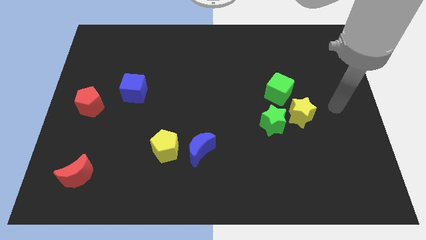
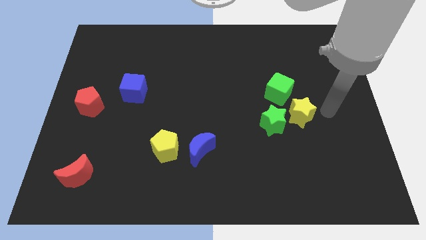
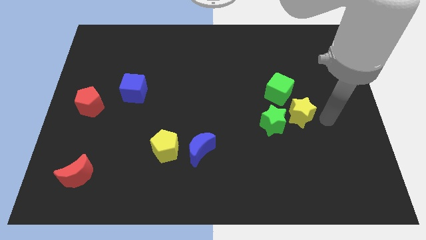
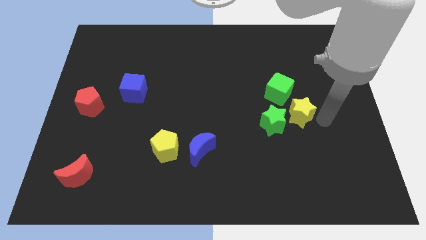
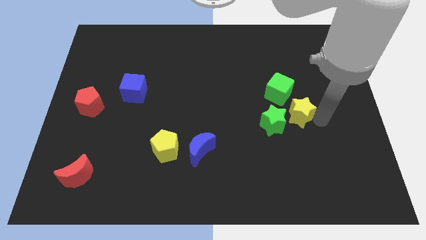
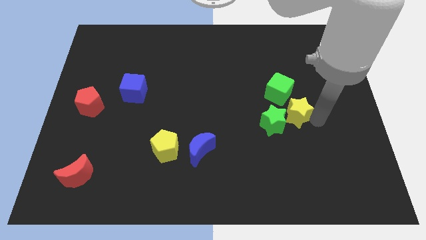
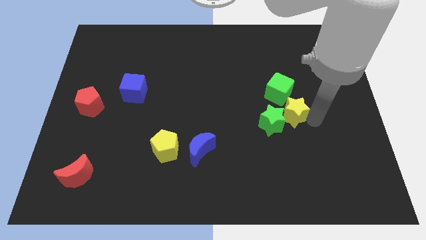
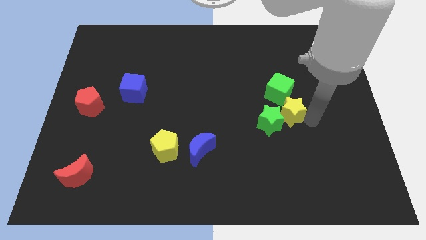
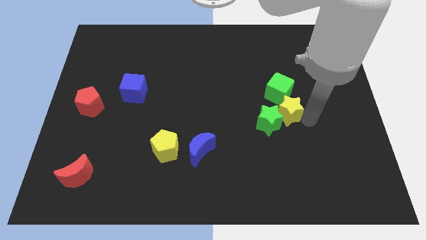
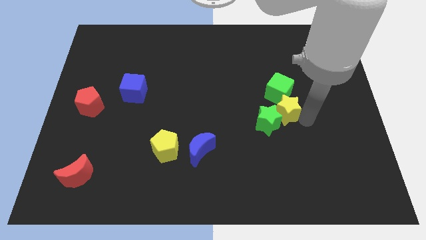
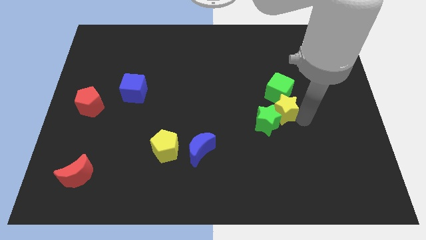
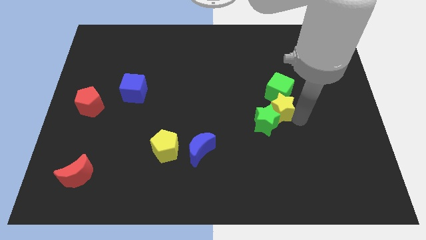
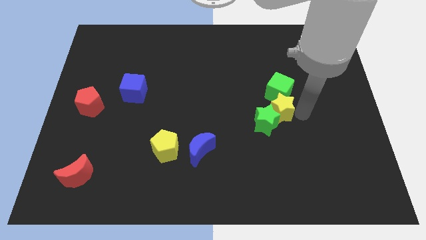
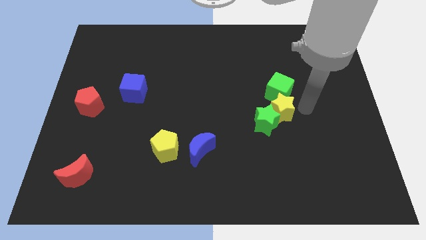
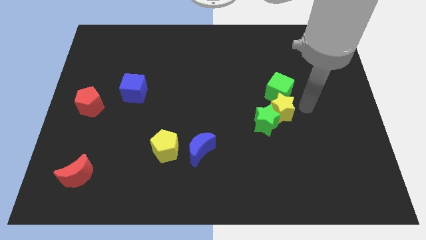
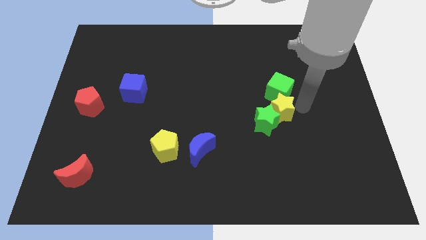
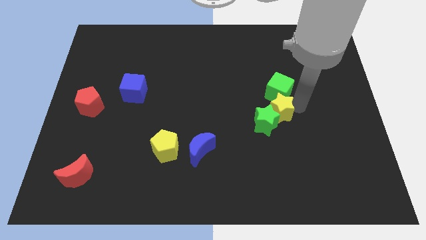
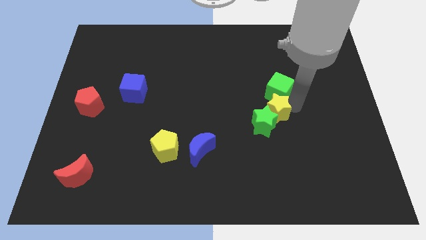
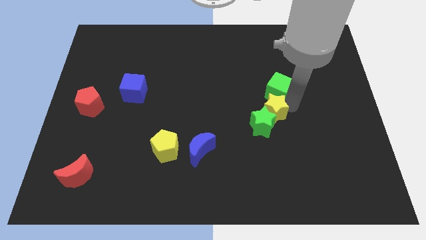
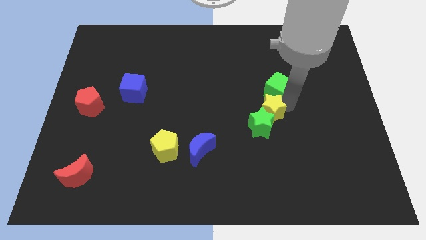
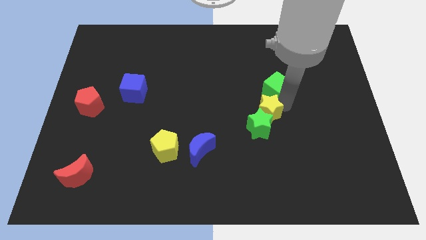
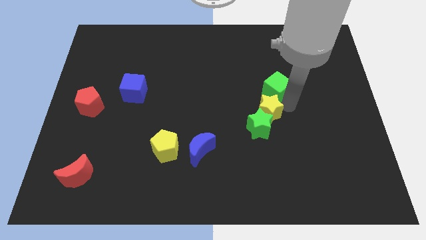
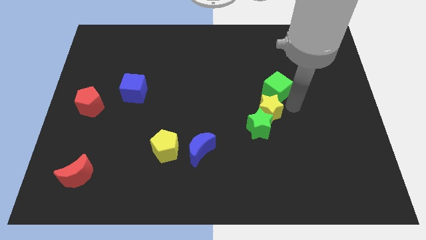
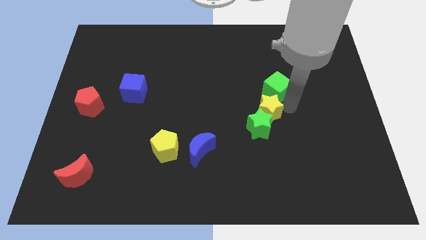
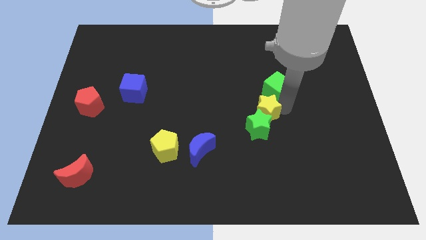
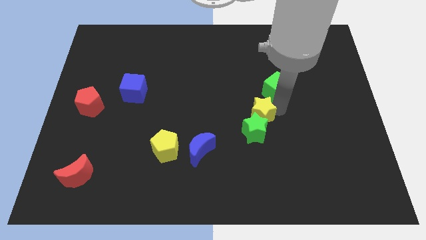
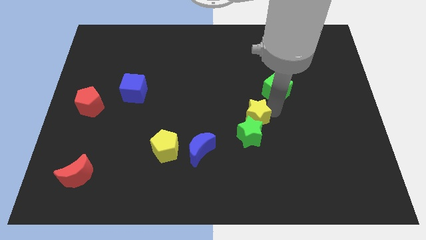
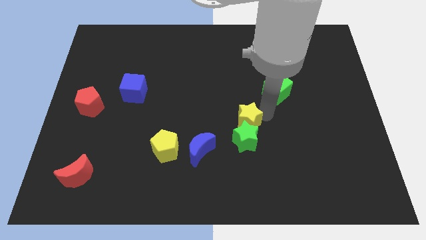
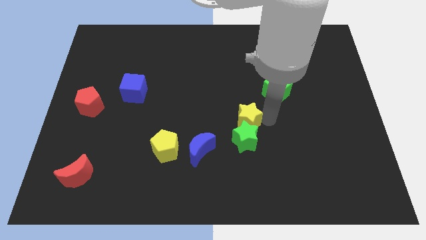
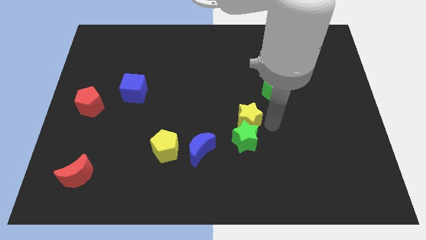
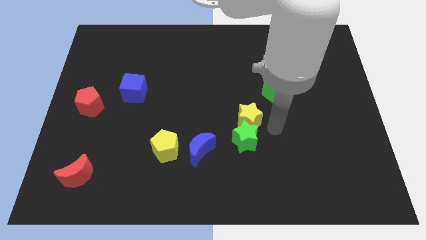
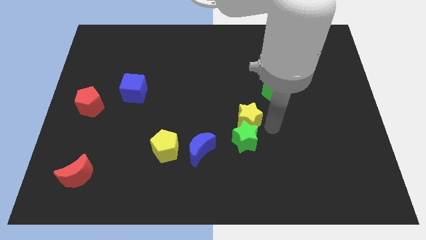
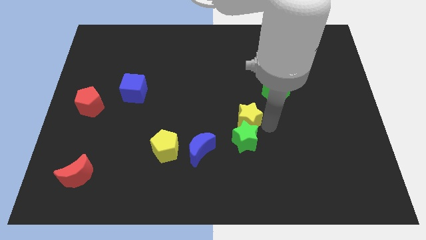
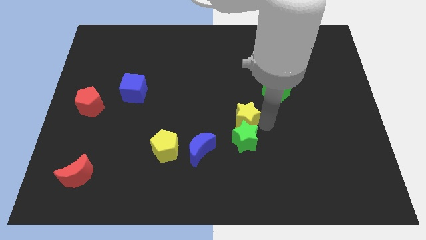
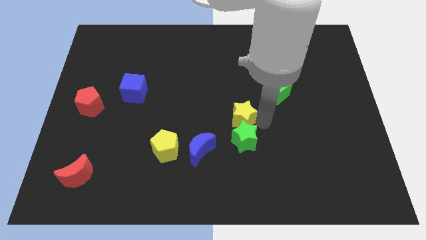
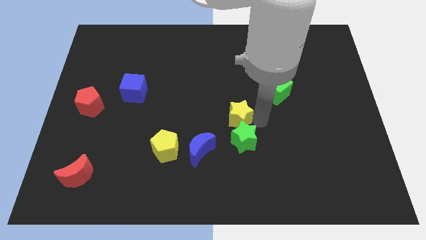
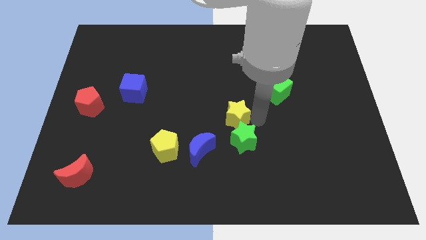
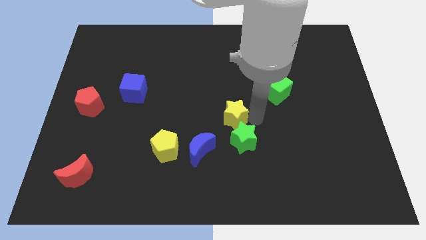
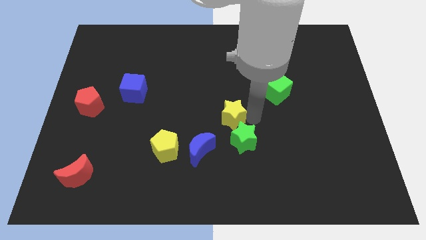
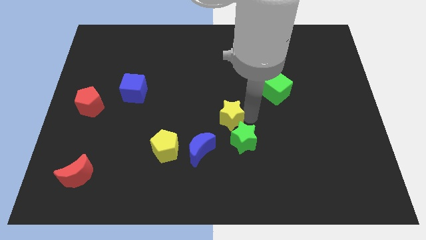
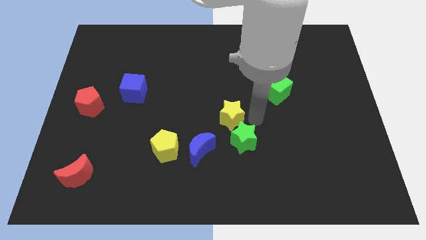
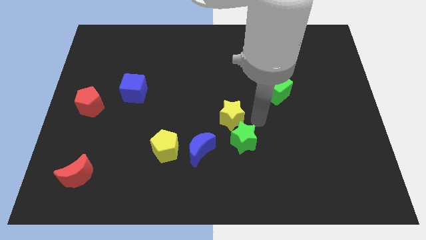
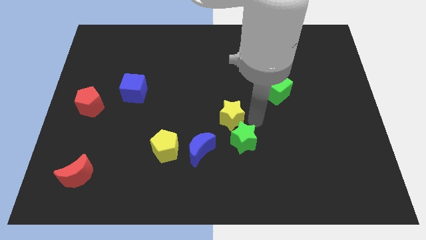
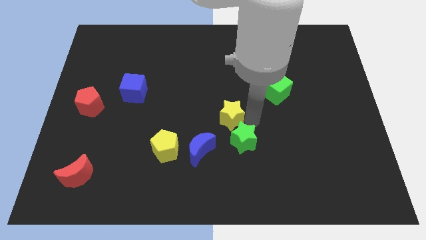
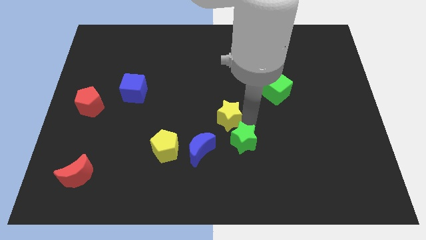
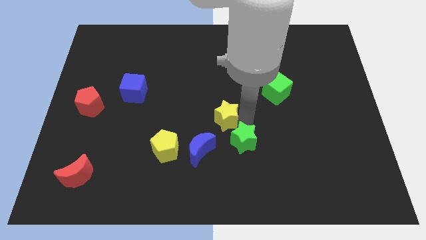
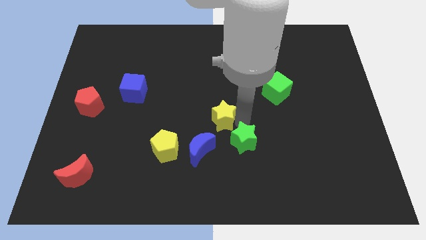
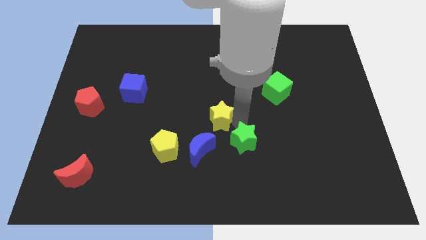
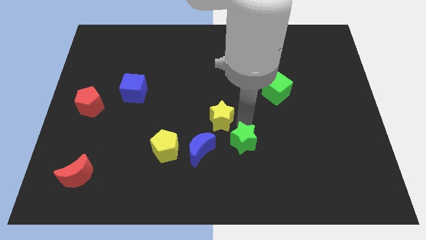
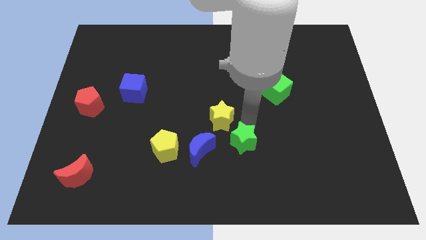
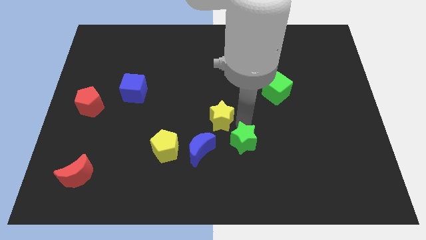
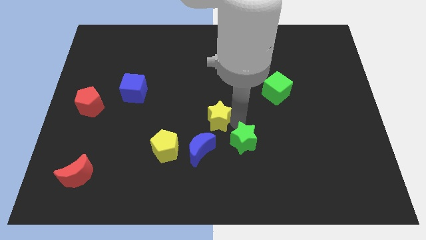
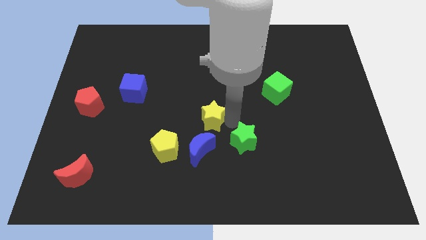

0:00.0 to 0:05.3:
slide the yellow star left

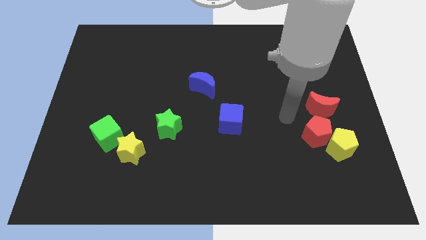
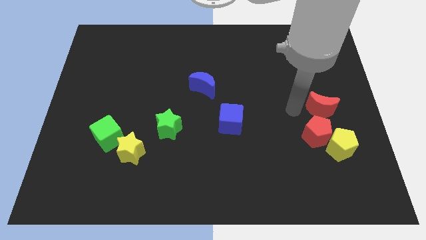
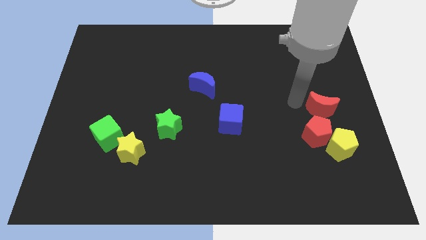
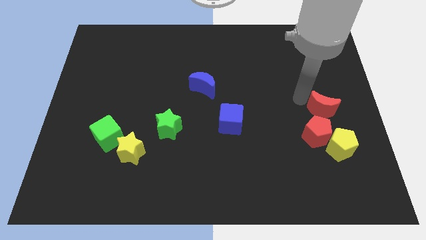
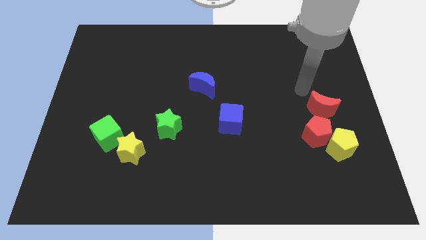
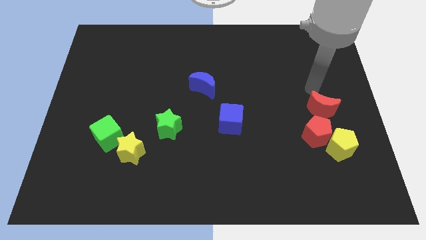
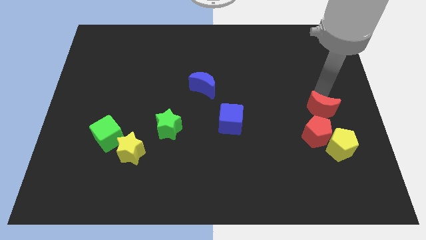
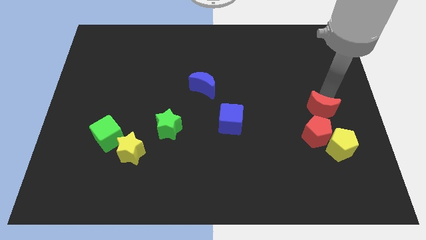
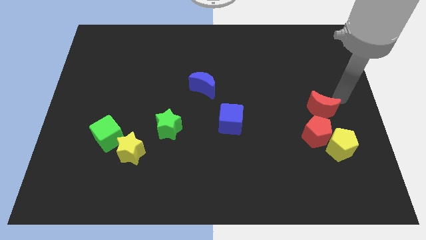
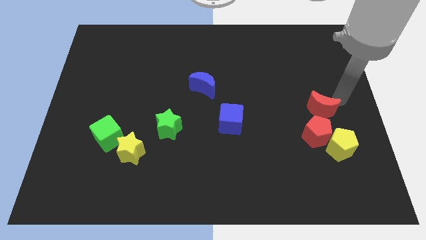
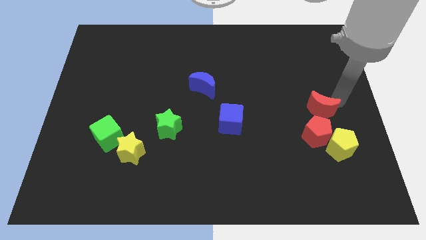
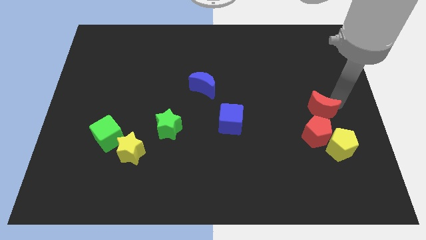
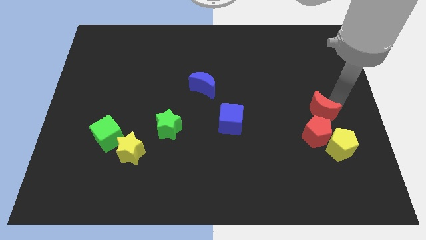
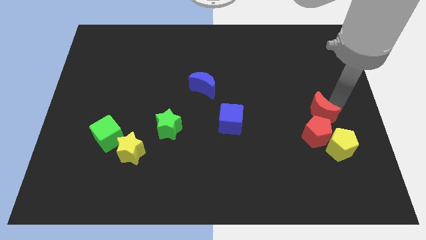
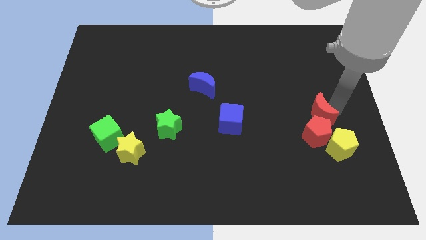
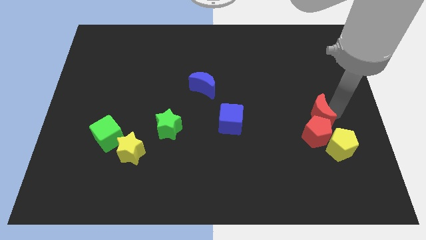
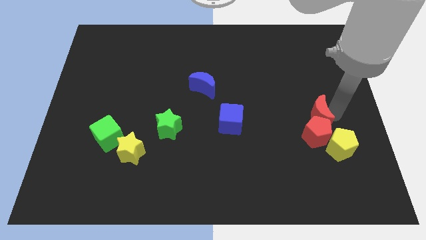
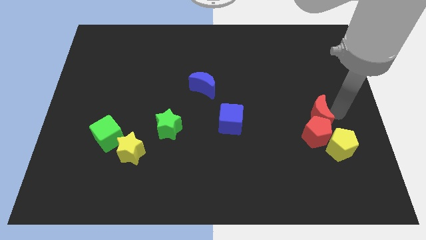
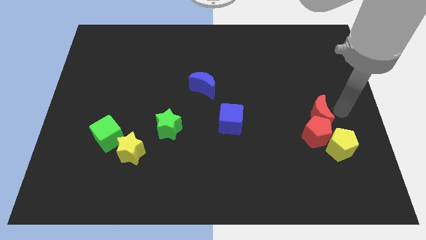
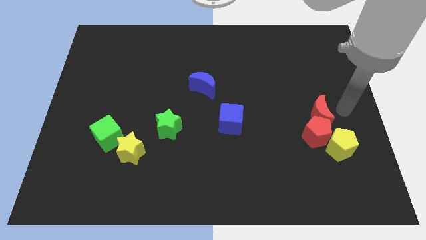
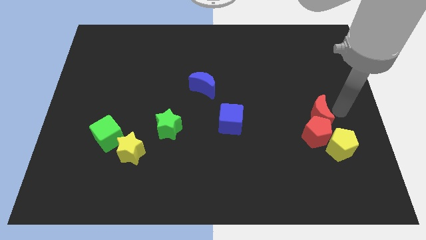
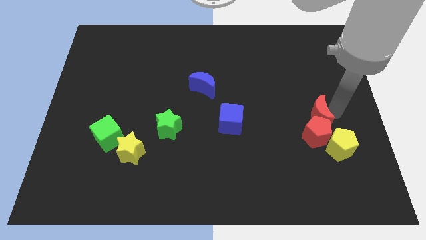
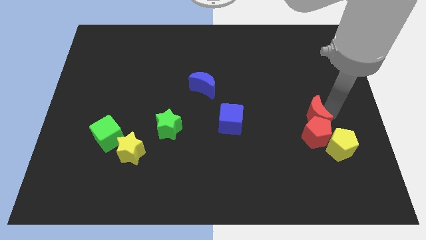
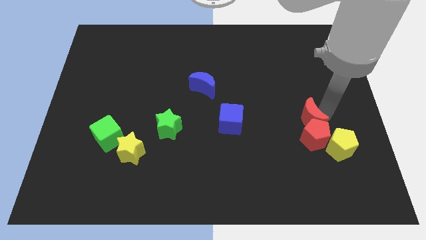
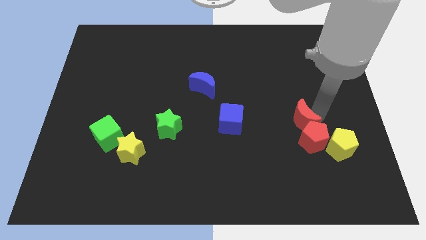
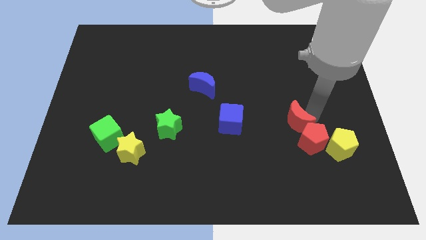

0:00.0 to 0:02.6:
slide the red moon a little downwards and left

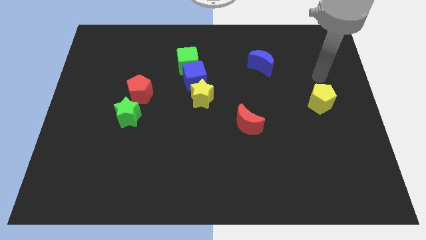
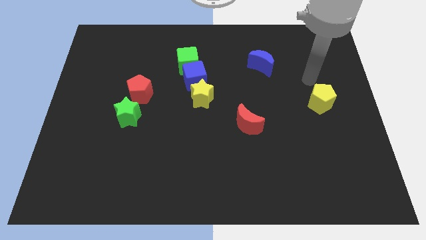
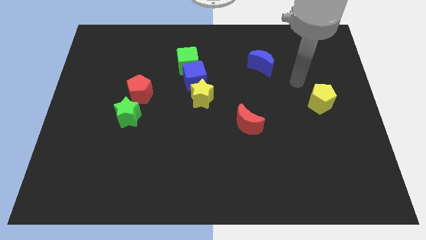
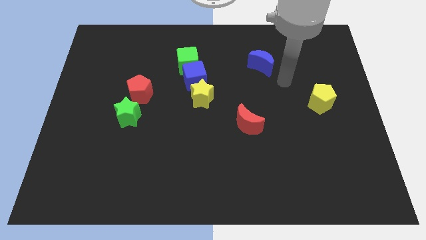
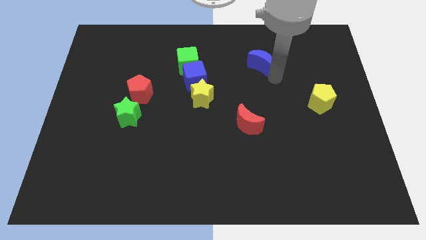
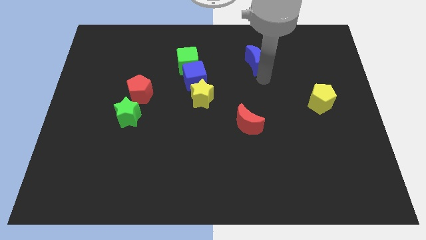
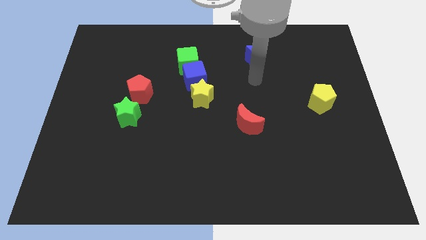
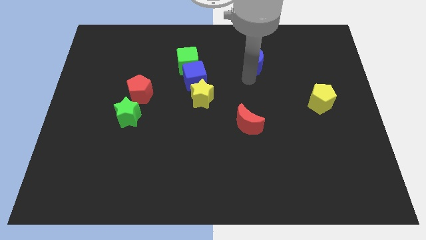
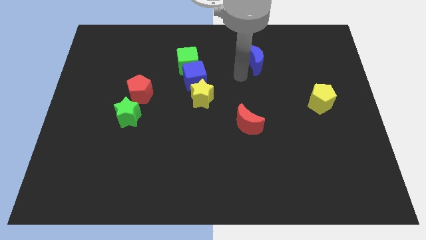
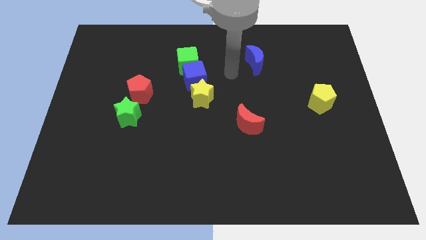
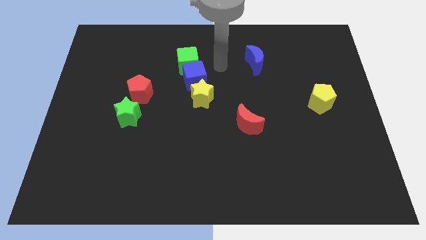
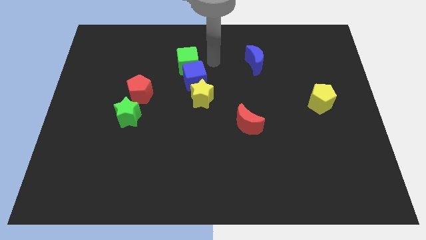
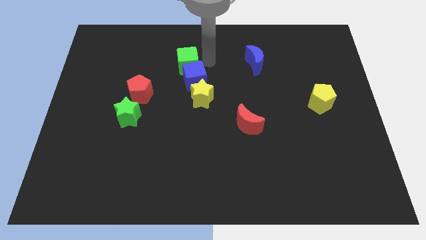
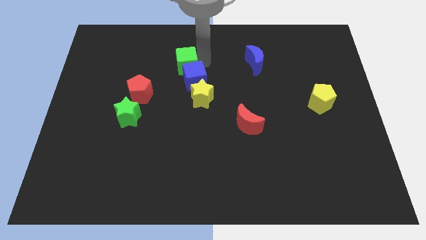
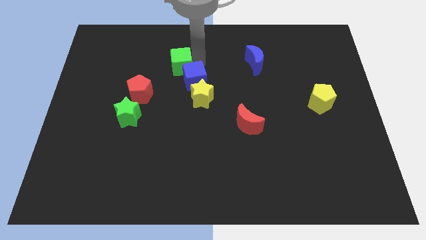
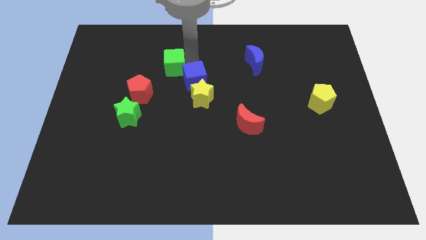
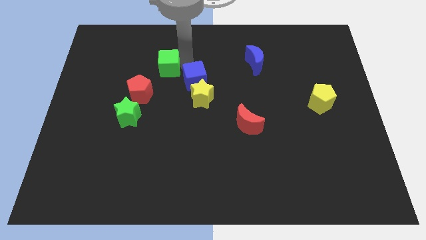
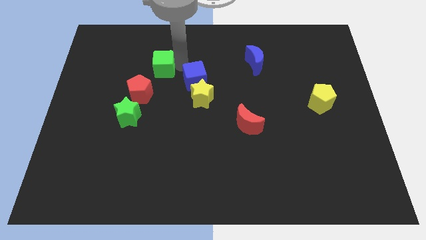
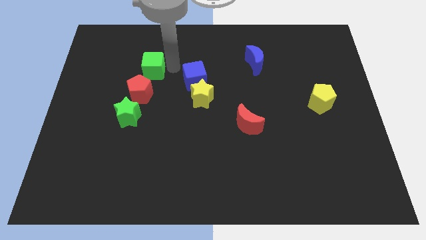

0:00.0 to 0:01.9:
slightly slide the green cube to the left
